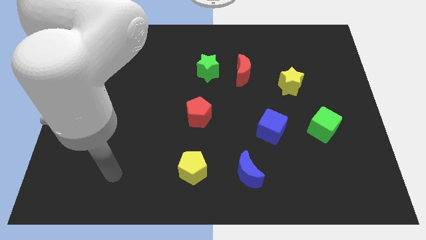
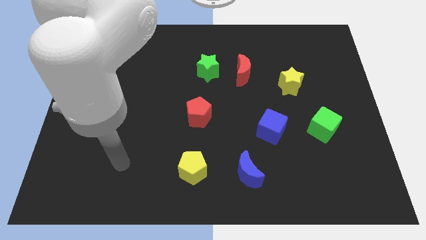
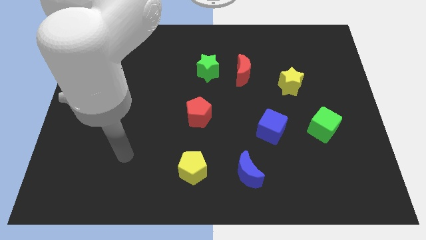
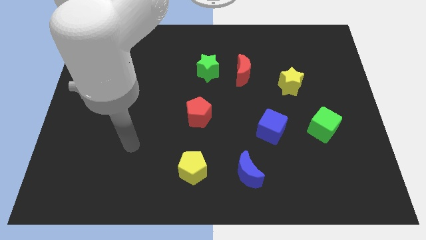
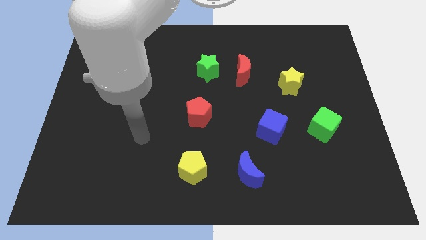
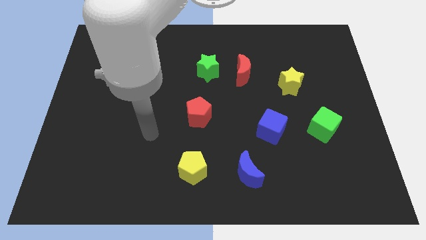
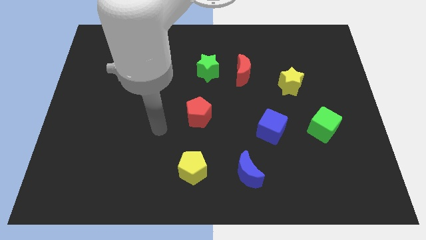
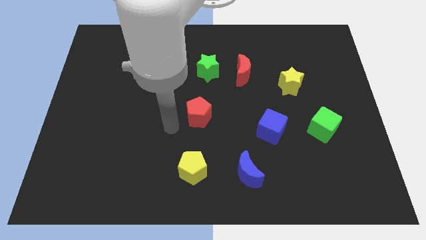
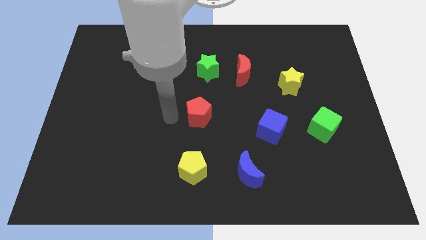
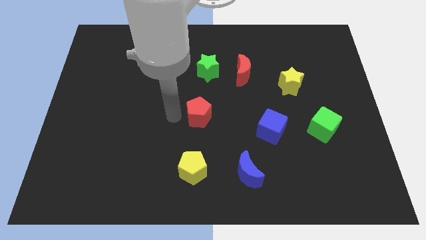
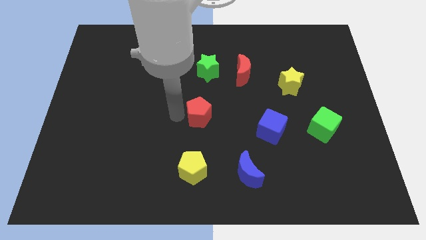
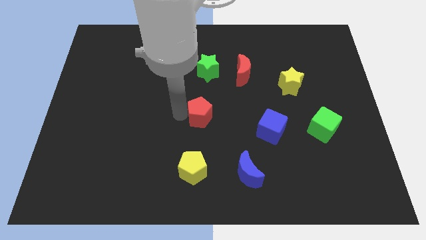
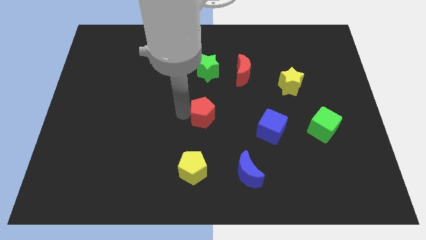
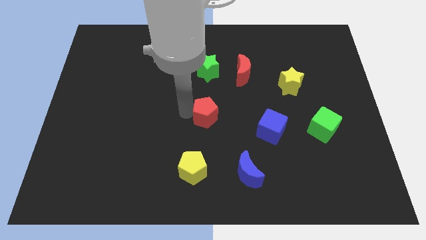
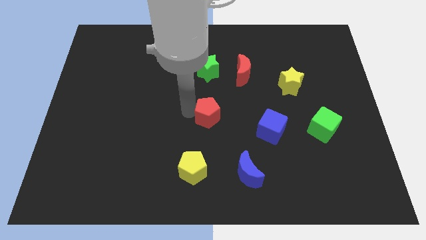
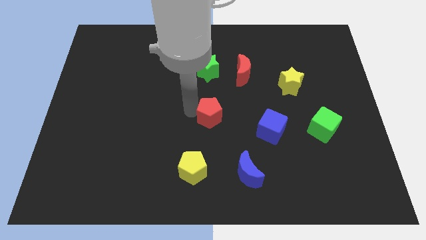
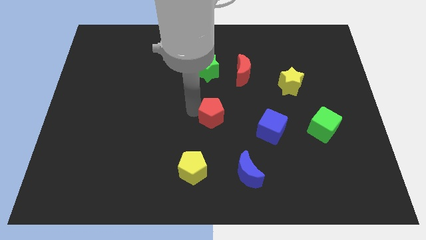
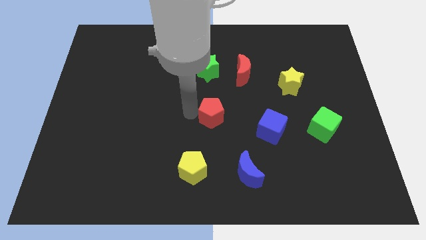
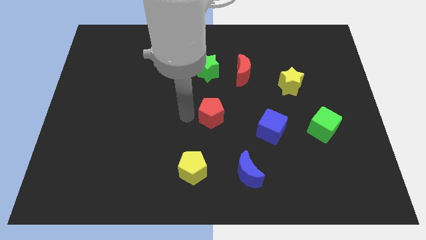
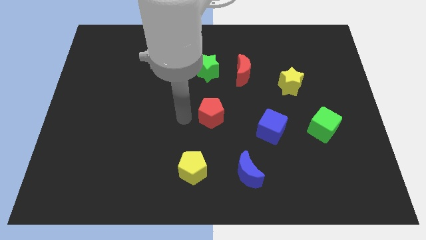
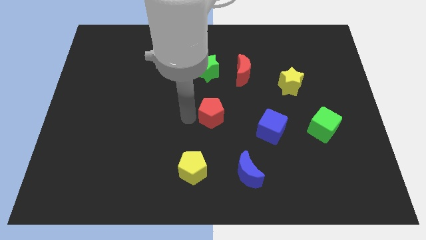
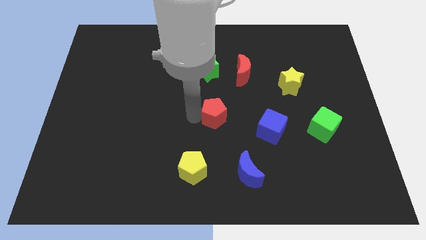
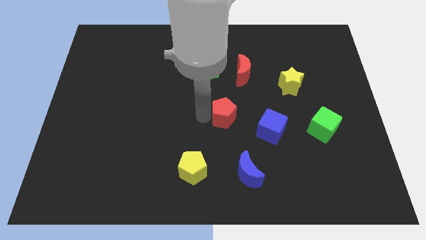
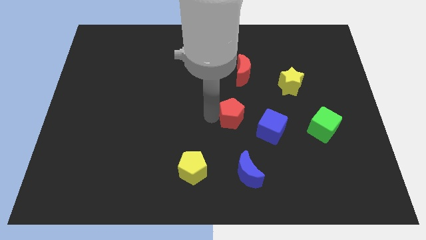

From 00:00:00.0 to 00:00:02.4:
move the red pentagon somewhat to the right

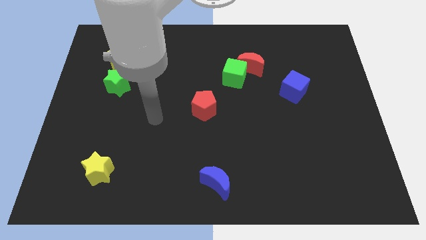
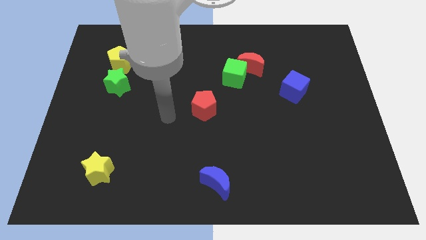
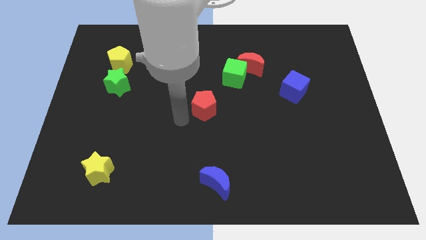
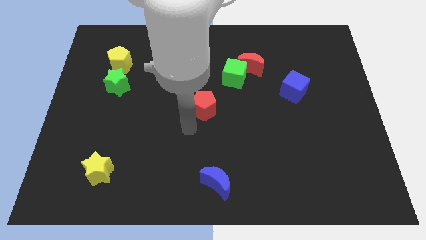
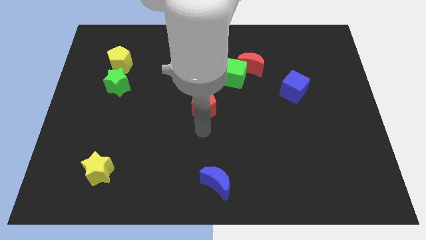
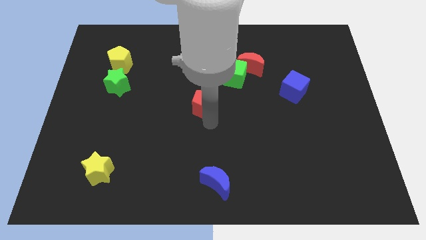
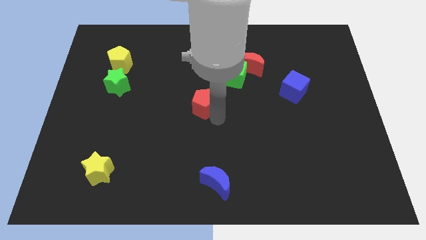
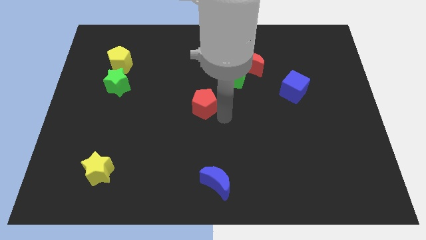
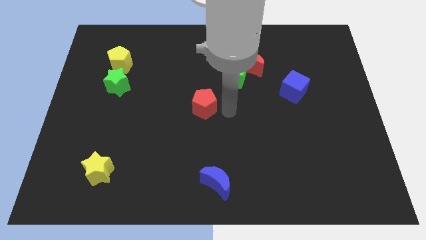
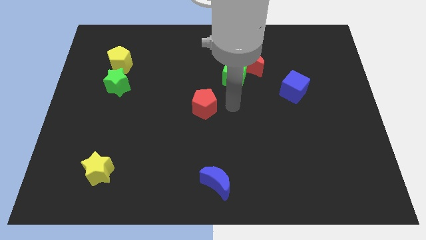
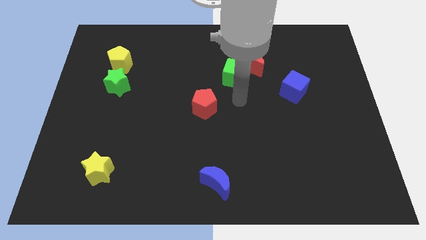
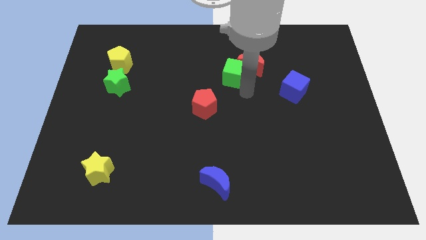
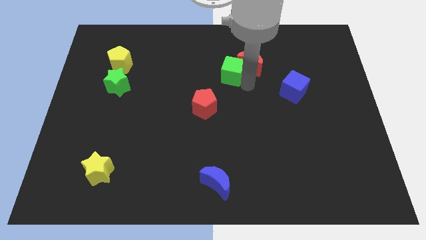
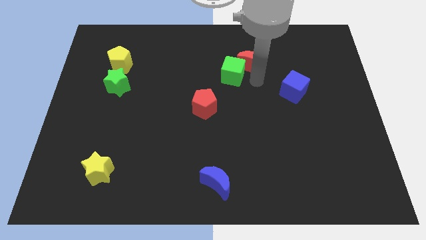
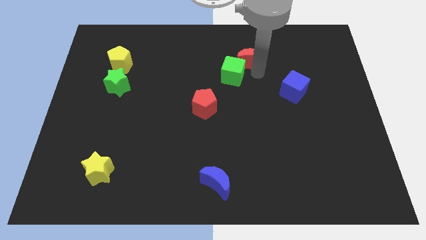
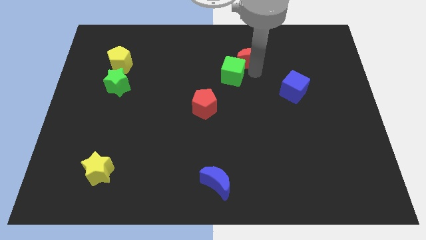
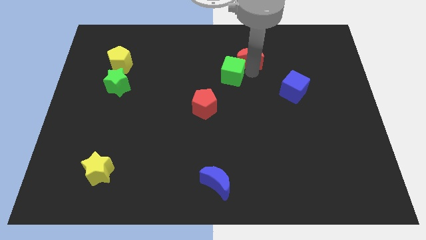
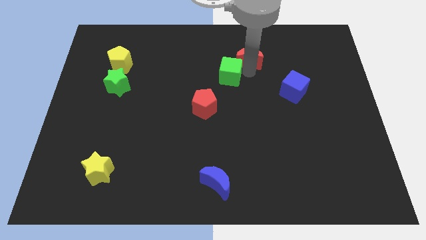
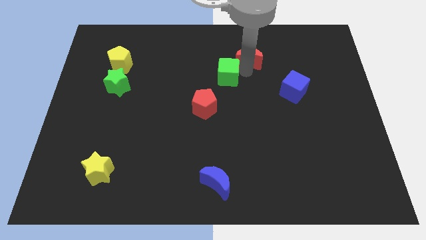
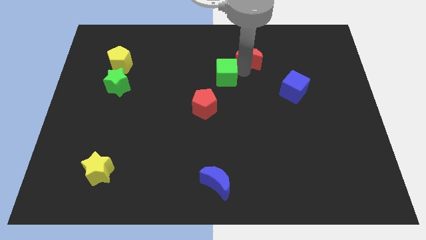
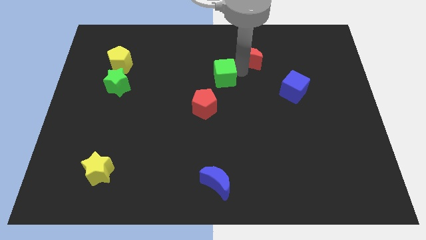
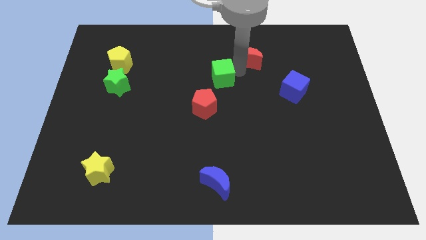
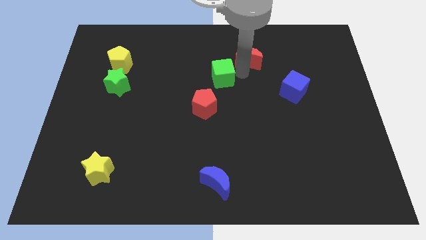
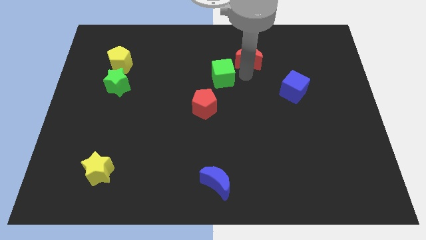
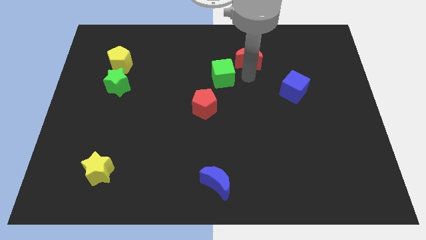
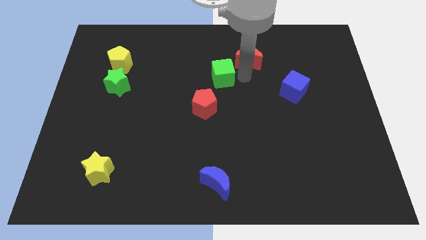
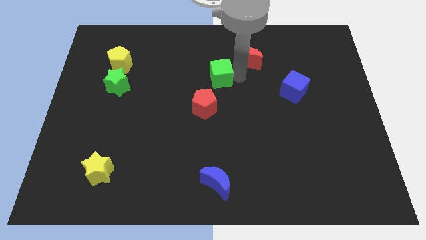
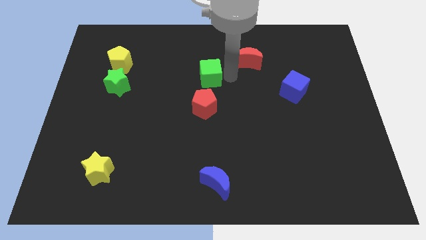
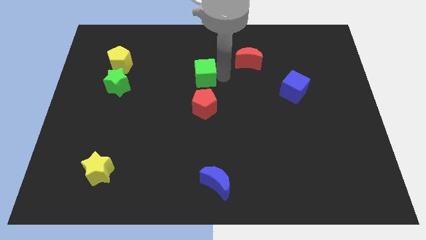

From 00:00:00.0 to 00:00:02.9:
slightly slide the green cube left

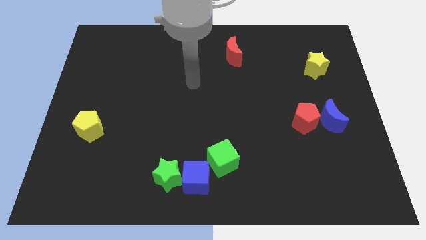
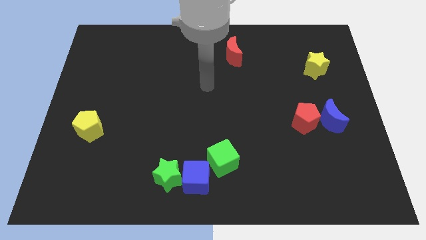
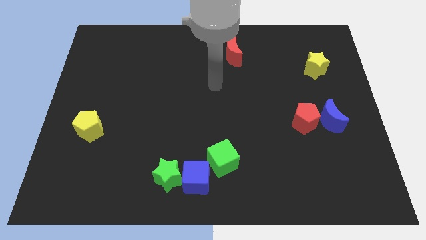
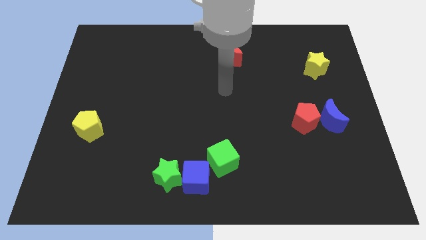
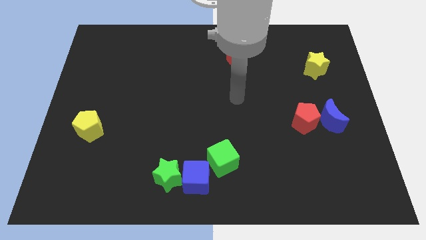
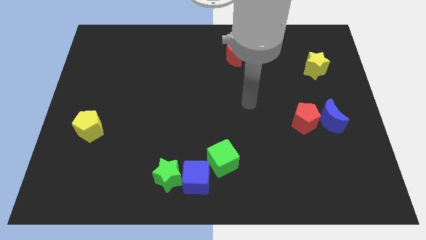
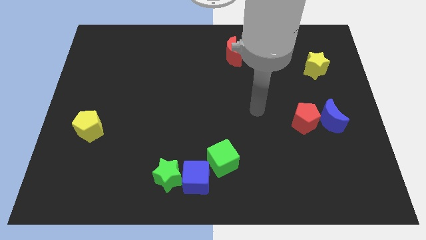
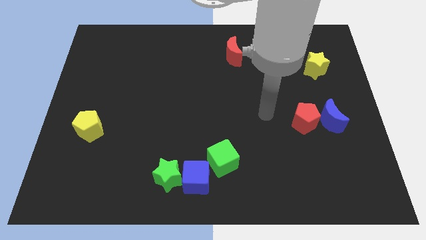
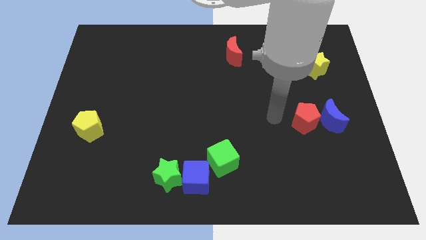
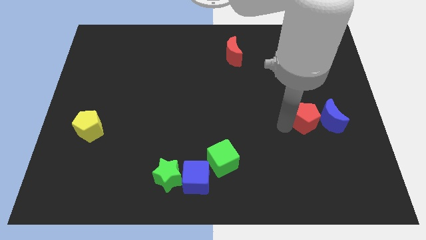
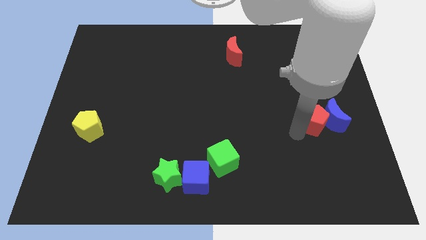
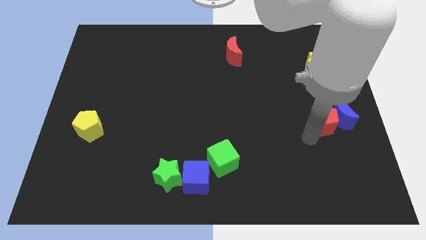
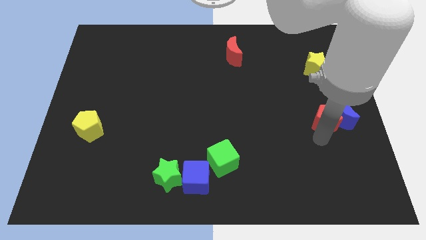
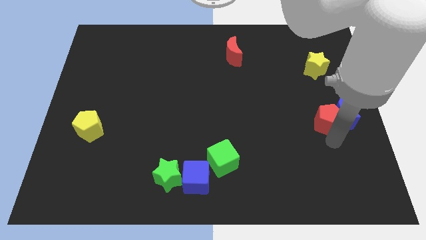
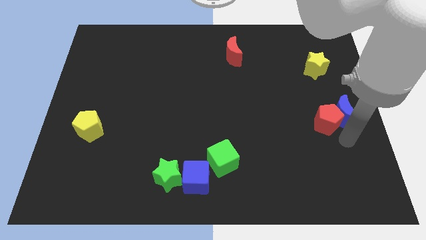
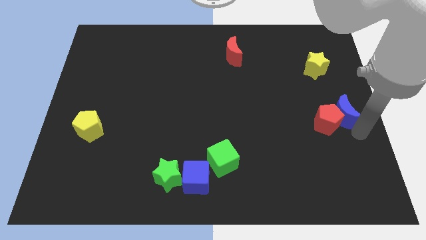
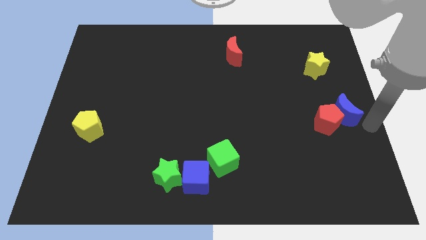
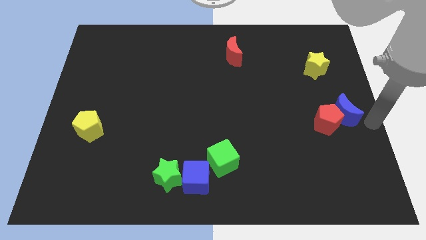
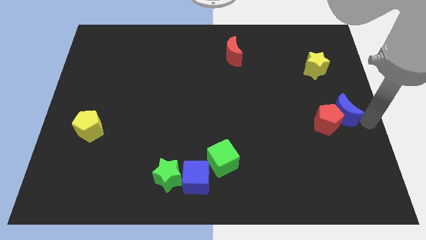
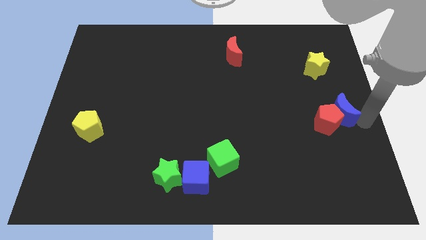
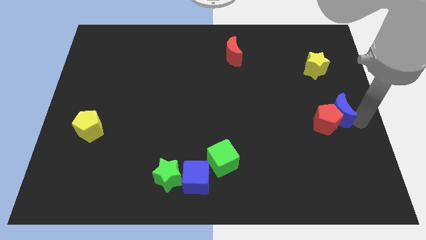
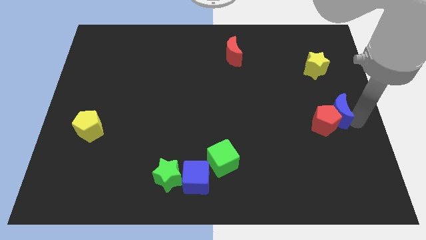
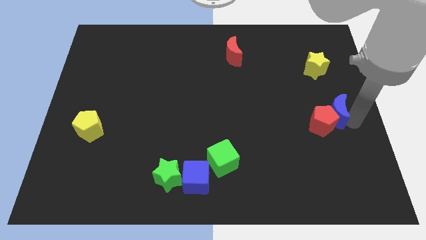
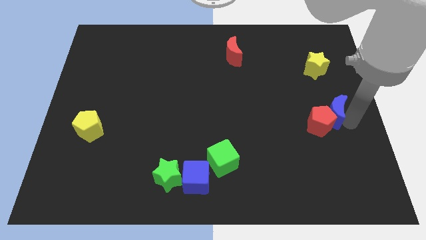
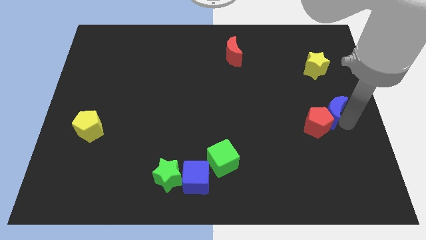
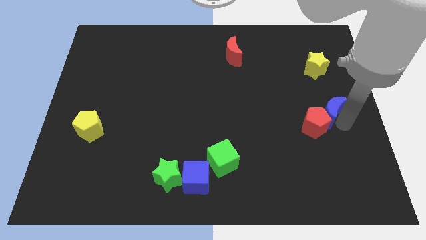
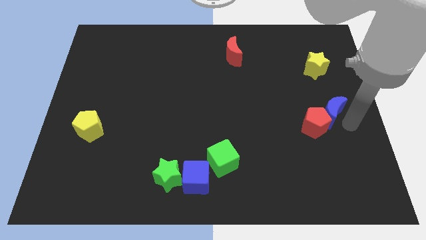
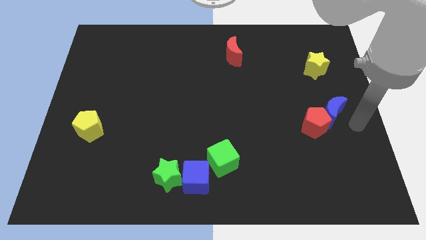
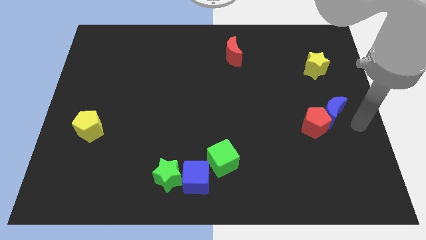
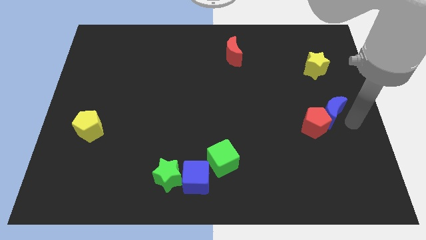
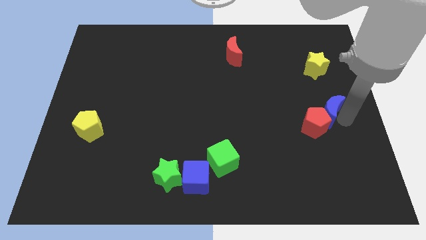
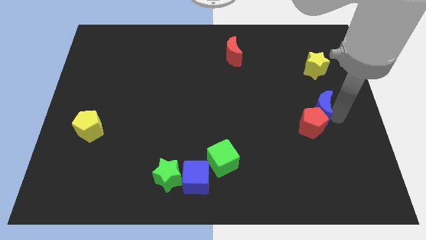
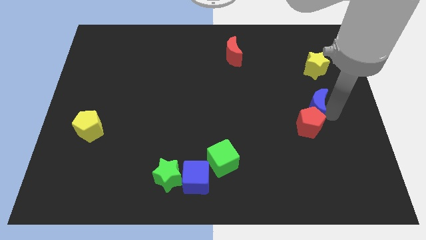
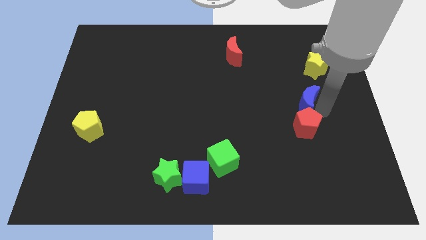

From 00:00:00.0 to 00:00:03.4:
push the blue moon upwards and then left slightly
